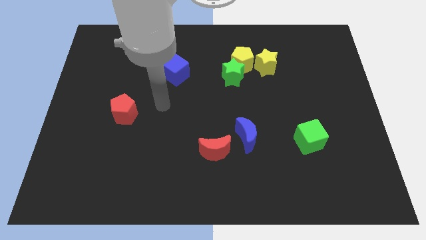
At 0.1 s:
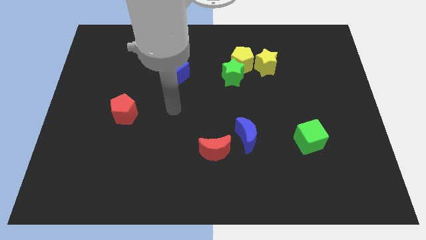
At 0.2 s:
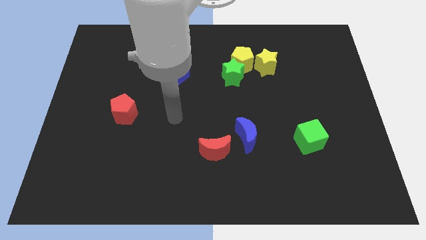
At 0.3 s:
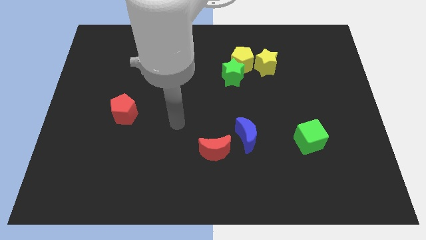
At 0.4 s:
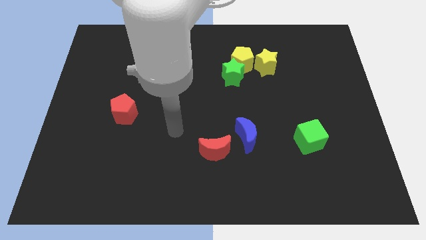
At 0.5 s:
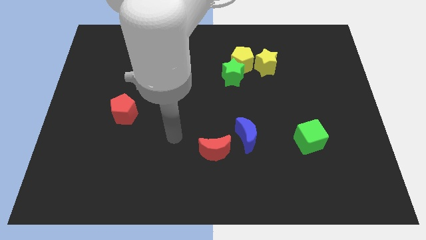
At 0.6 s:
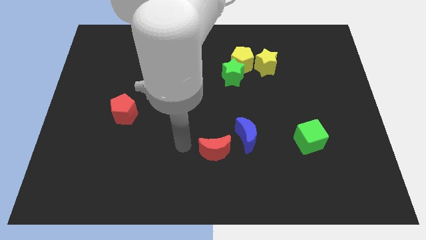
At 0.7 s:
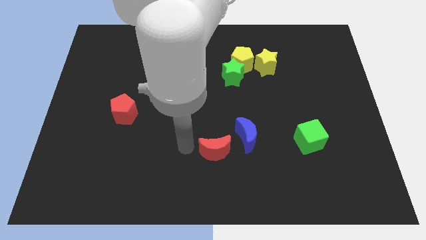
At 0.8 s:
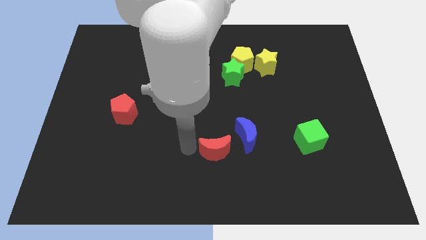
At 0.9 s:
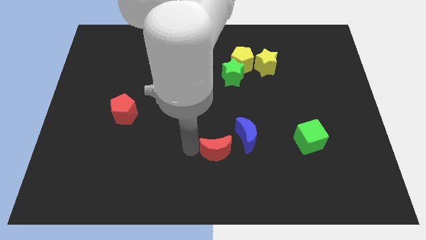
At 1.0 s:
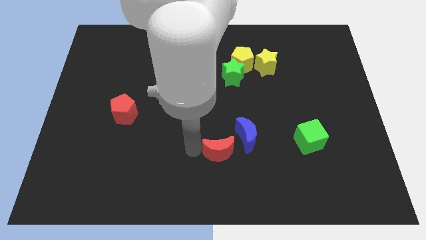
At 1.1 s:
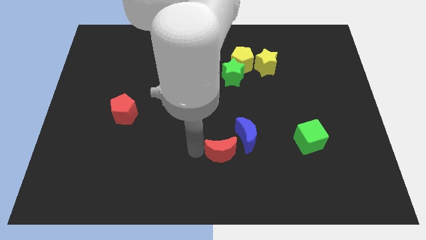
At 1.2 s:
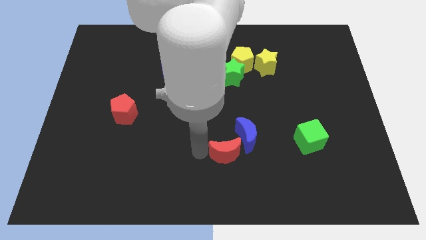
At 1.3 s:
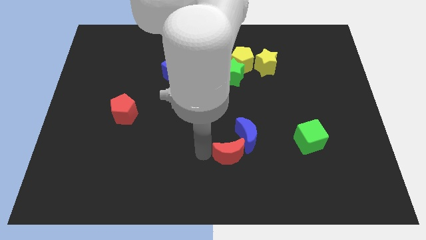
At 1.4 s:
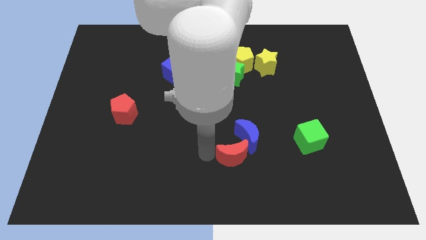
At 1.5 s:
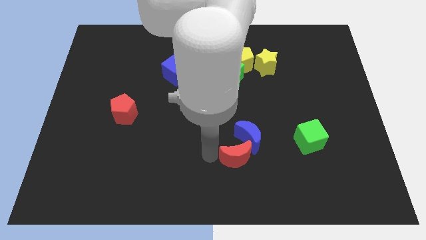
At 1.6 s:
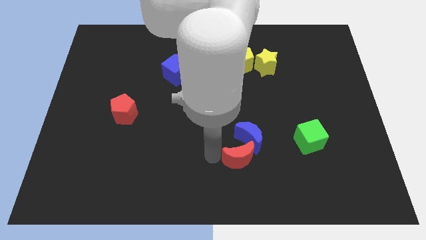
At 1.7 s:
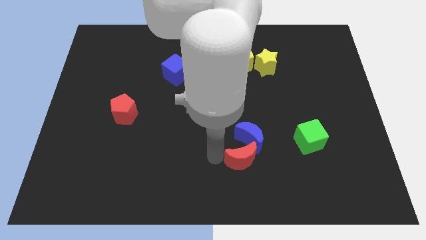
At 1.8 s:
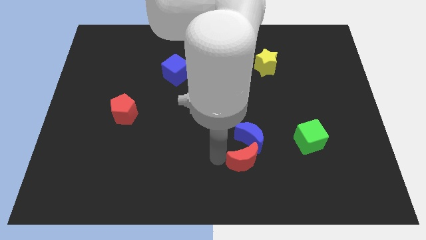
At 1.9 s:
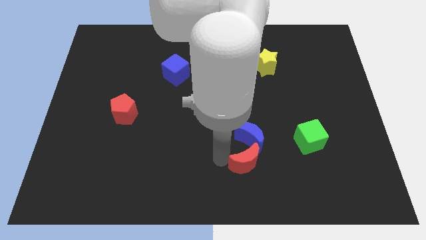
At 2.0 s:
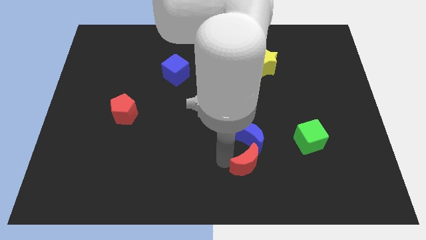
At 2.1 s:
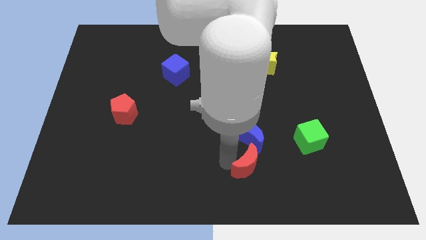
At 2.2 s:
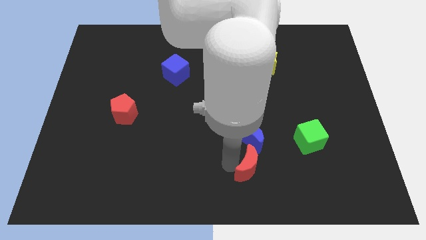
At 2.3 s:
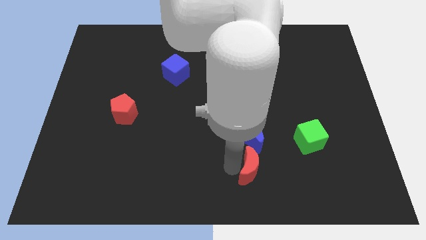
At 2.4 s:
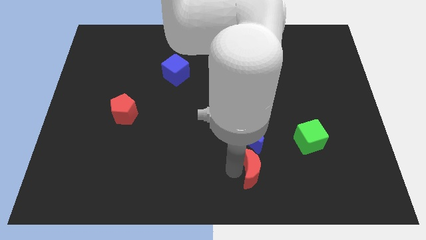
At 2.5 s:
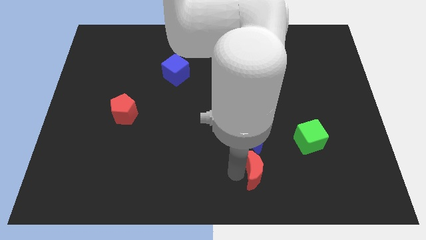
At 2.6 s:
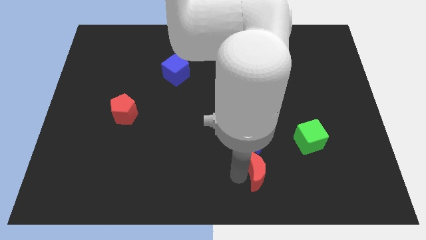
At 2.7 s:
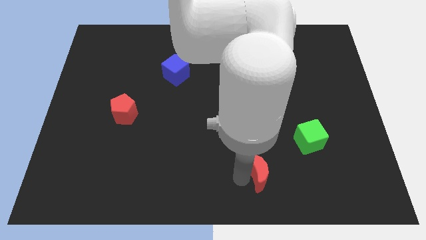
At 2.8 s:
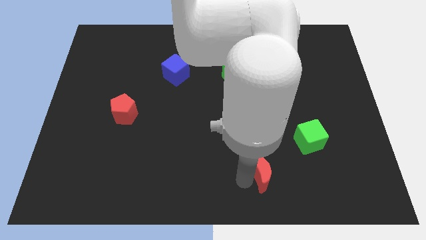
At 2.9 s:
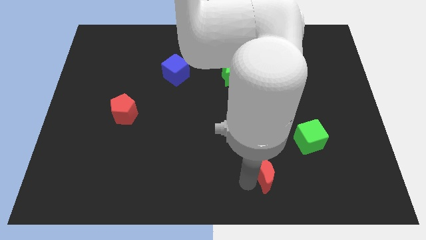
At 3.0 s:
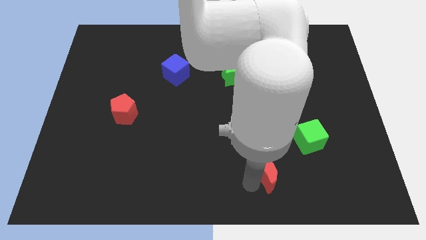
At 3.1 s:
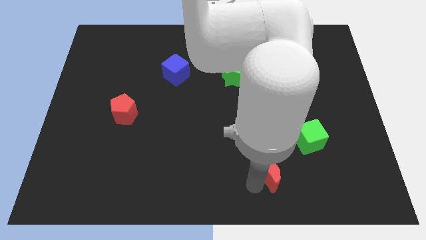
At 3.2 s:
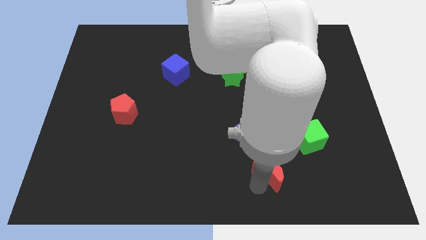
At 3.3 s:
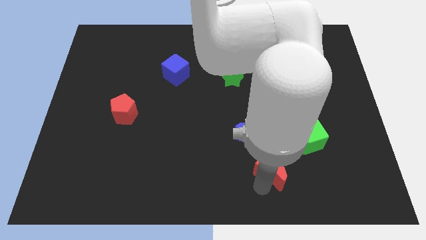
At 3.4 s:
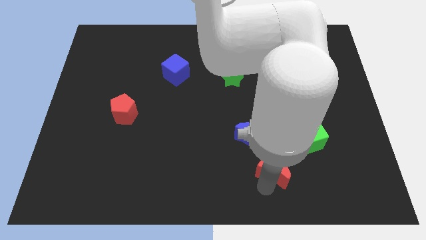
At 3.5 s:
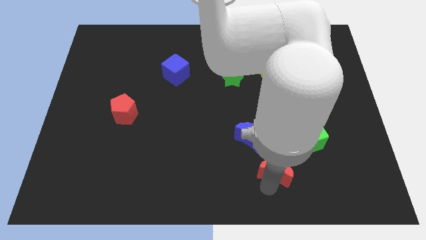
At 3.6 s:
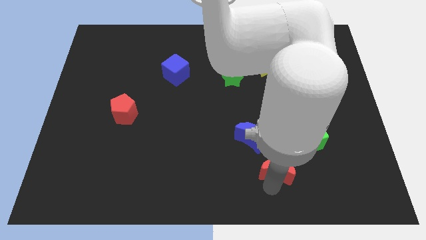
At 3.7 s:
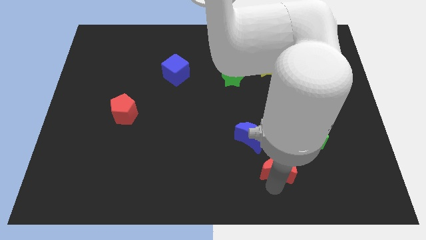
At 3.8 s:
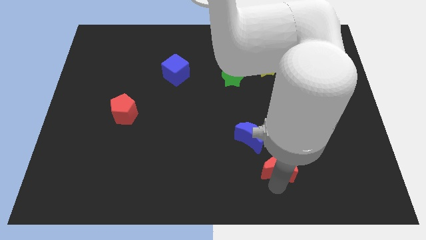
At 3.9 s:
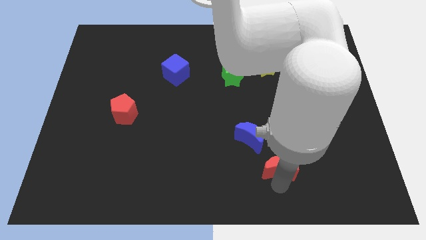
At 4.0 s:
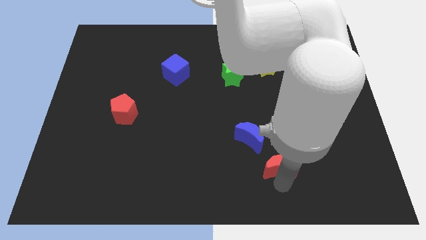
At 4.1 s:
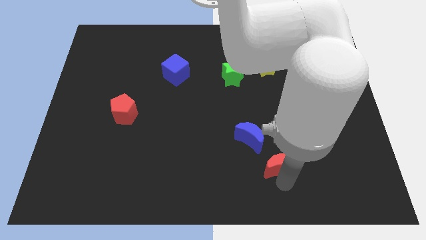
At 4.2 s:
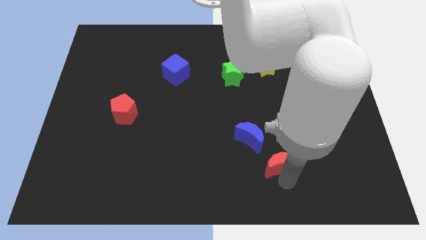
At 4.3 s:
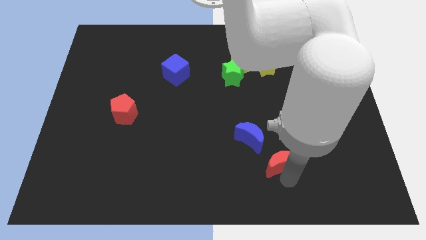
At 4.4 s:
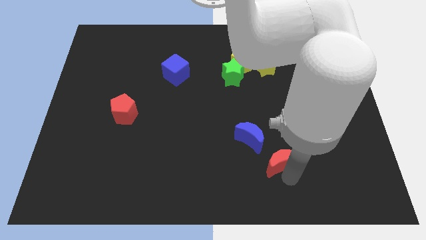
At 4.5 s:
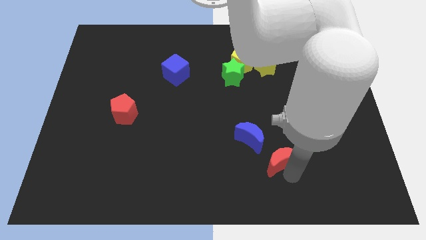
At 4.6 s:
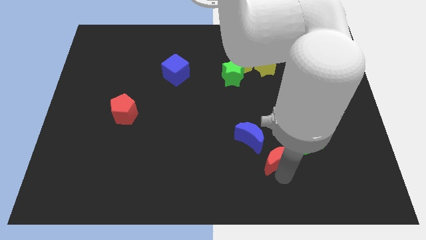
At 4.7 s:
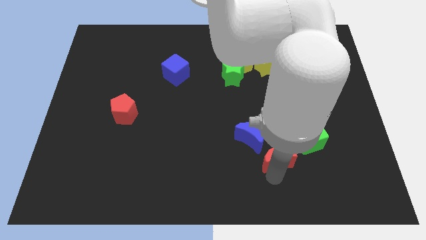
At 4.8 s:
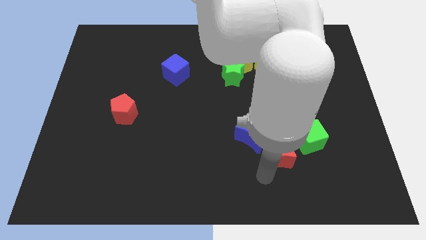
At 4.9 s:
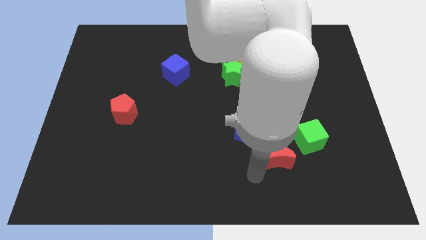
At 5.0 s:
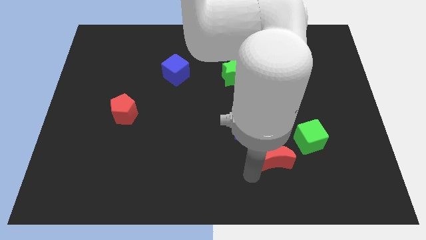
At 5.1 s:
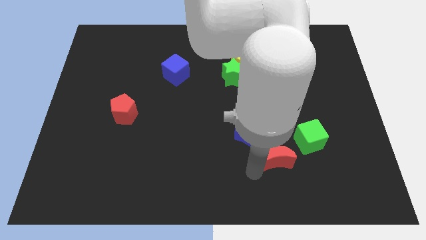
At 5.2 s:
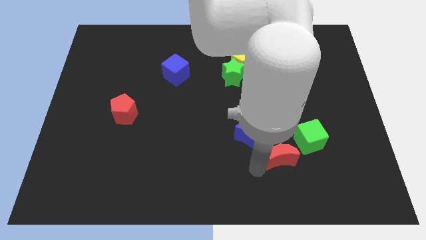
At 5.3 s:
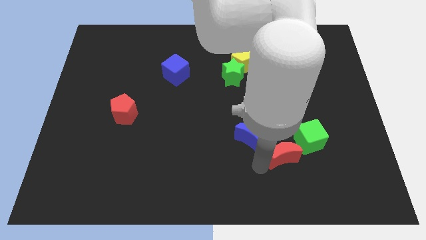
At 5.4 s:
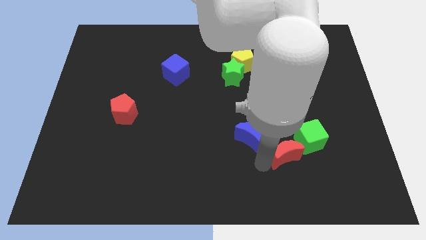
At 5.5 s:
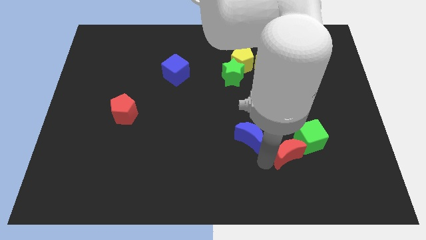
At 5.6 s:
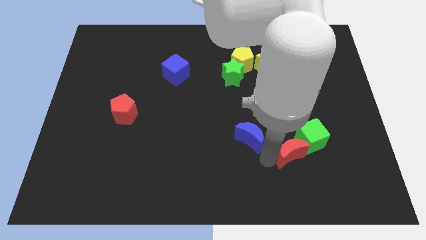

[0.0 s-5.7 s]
slide the red moon close to the green cube

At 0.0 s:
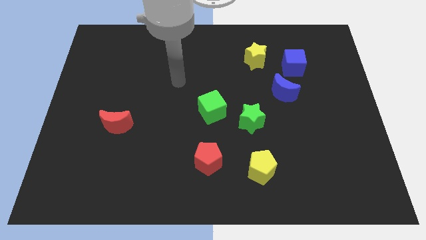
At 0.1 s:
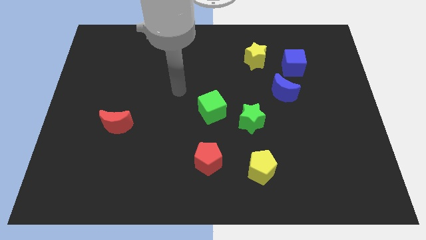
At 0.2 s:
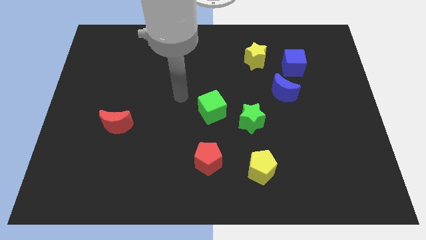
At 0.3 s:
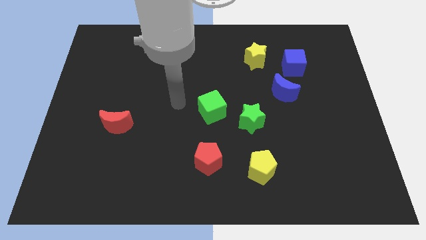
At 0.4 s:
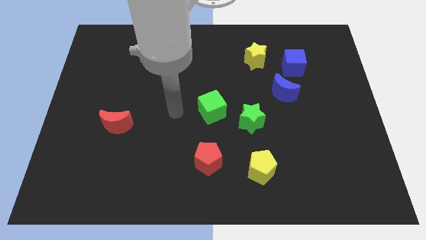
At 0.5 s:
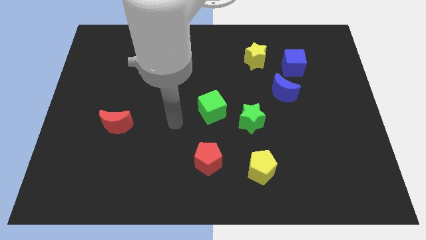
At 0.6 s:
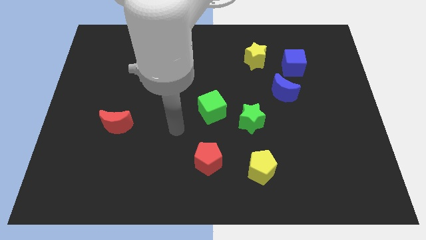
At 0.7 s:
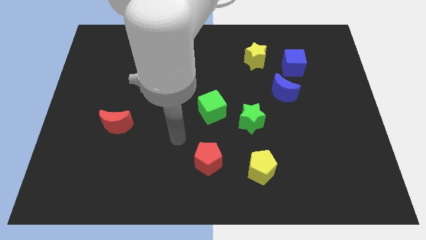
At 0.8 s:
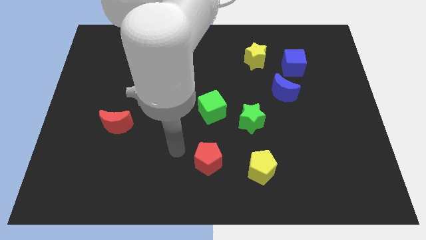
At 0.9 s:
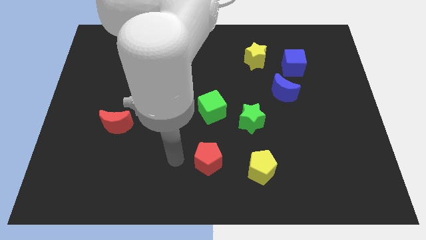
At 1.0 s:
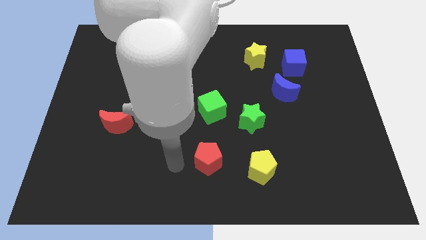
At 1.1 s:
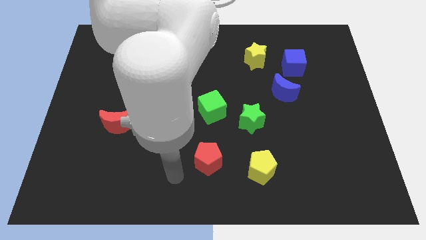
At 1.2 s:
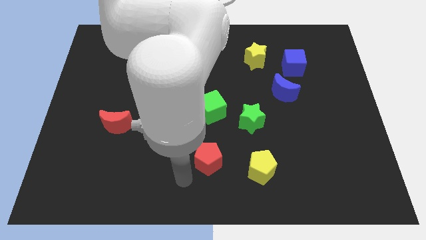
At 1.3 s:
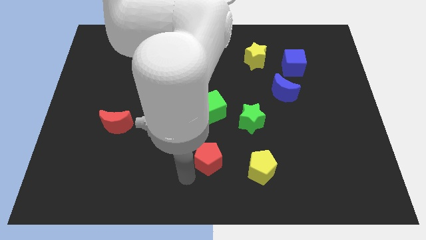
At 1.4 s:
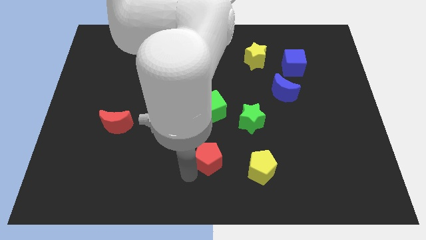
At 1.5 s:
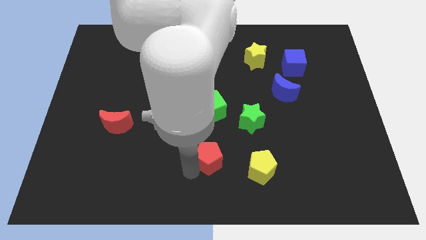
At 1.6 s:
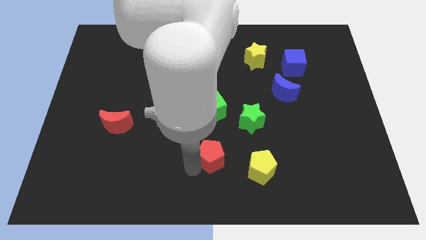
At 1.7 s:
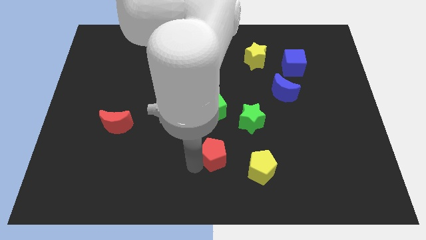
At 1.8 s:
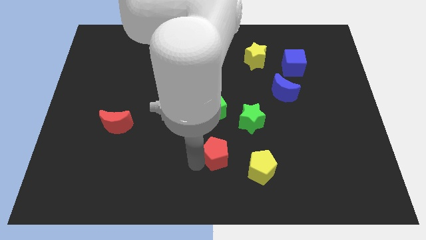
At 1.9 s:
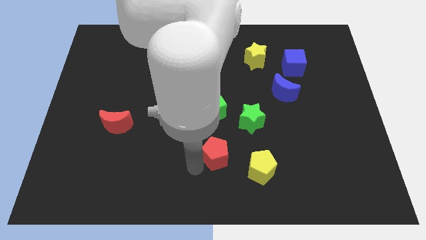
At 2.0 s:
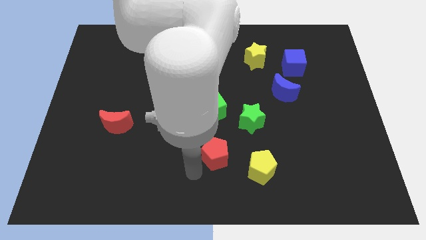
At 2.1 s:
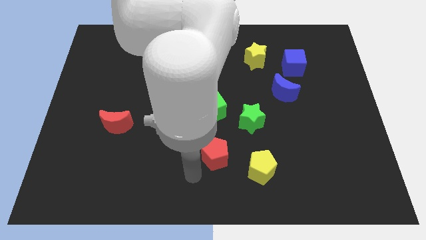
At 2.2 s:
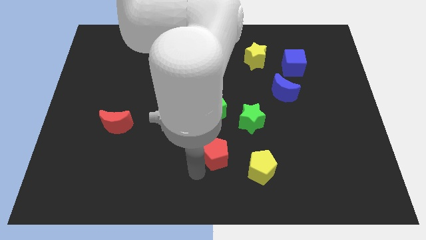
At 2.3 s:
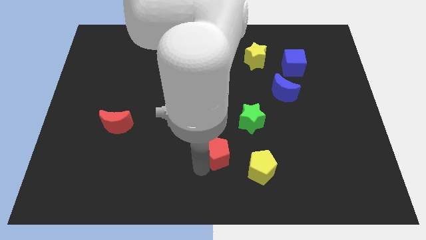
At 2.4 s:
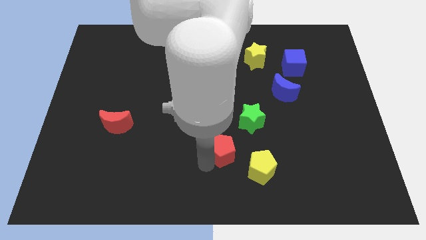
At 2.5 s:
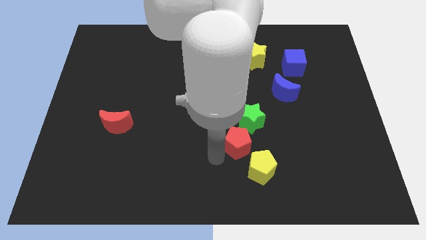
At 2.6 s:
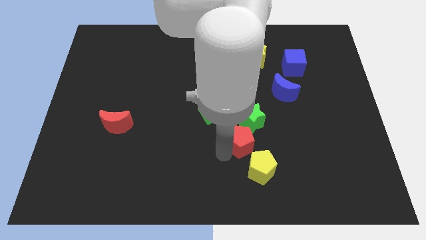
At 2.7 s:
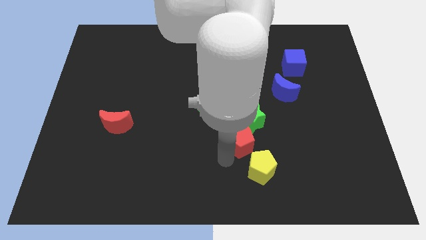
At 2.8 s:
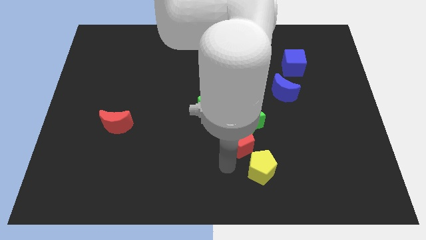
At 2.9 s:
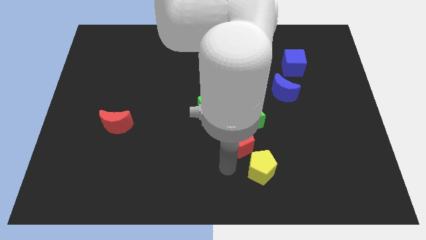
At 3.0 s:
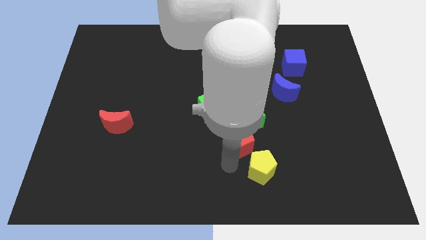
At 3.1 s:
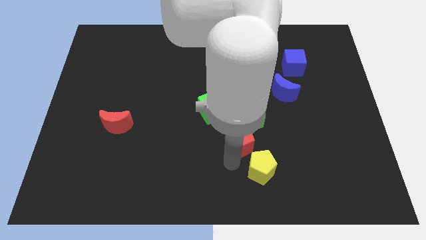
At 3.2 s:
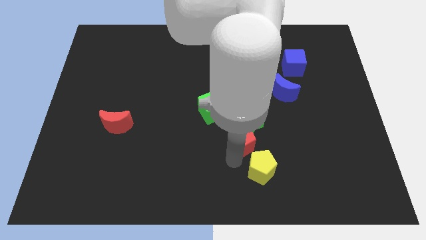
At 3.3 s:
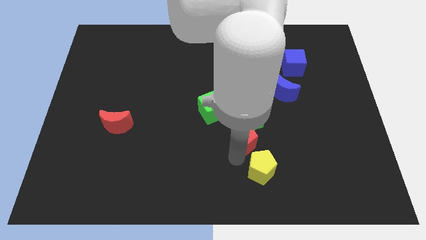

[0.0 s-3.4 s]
move the red pentagon towards the green star
